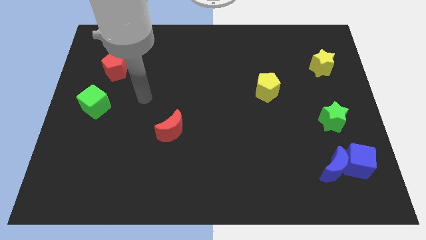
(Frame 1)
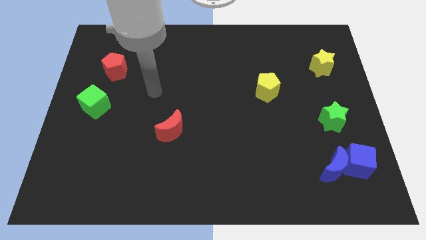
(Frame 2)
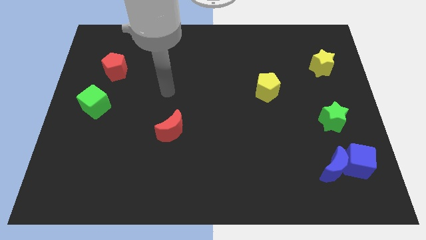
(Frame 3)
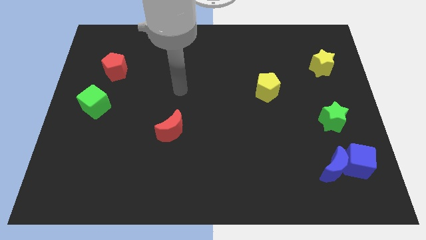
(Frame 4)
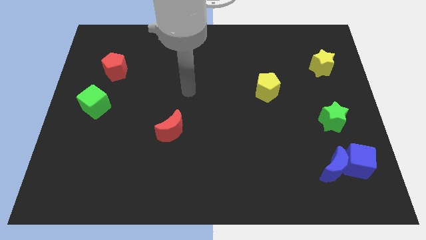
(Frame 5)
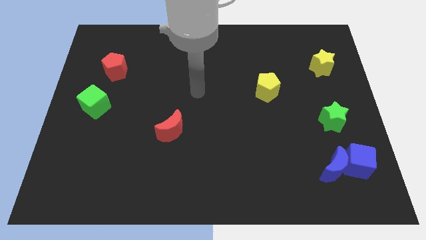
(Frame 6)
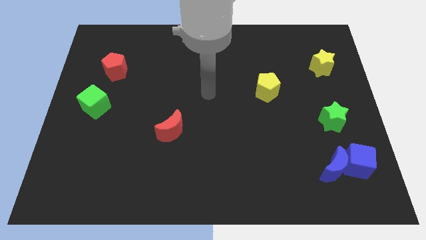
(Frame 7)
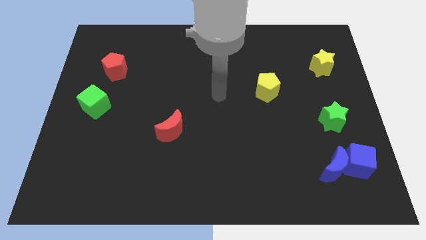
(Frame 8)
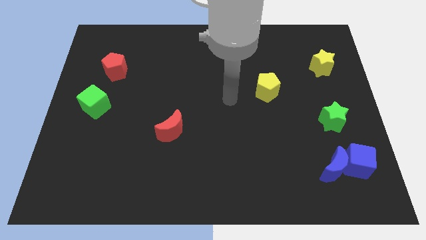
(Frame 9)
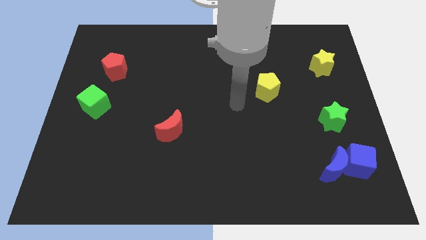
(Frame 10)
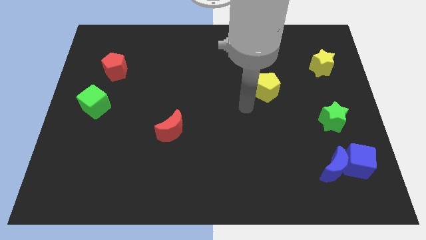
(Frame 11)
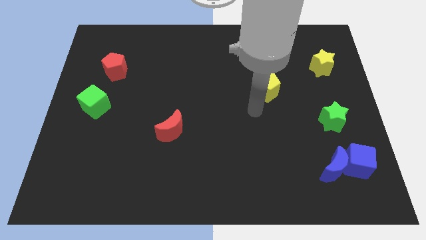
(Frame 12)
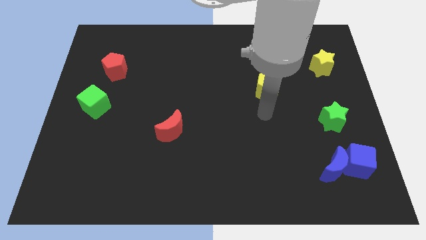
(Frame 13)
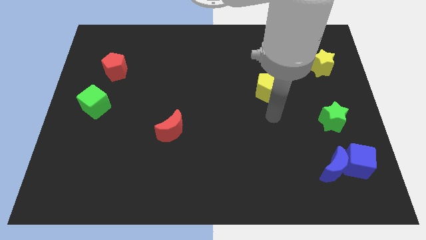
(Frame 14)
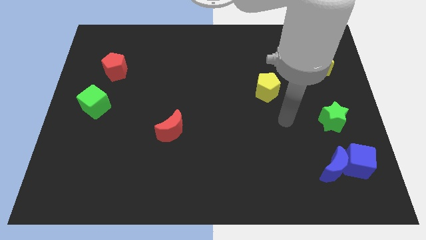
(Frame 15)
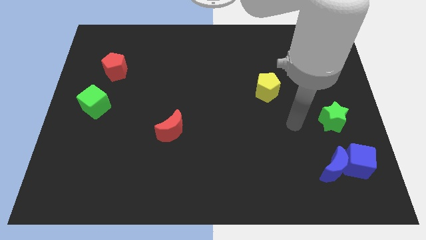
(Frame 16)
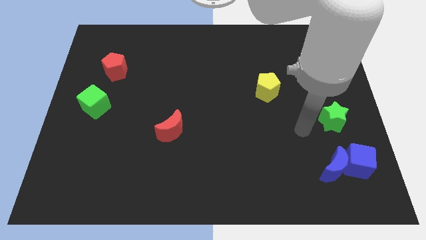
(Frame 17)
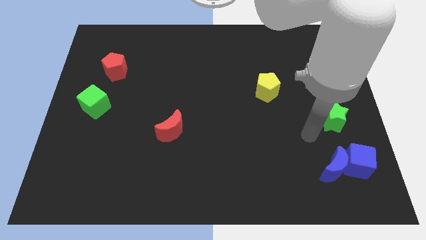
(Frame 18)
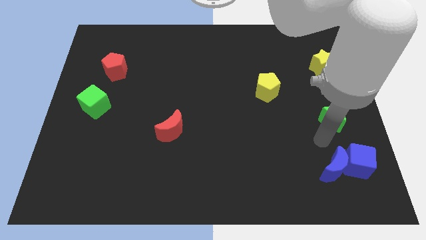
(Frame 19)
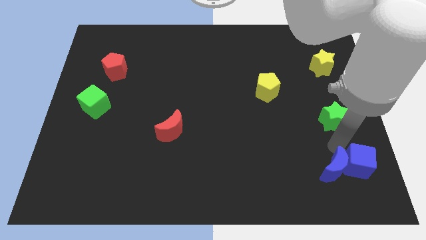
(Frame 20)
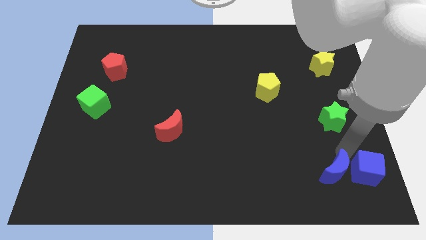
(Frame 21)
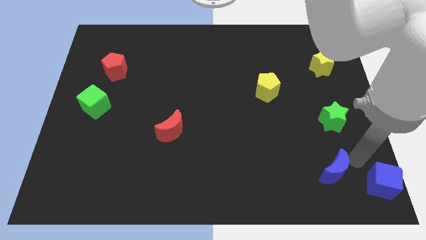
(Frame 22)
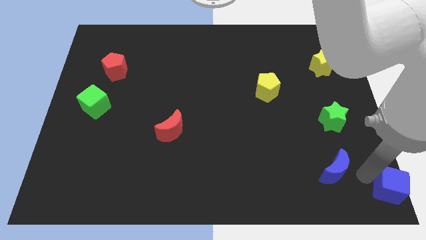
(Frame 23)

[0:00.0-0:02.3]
move the blue moon away from the blue cube

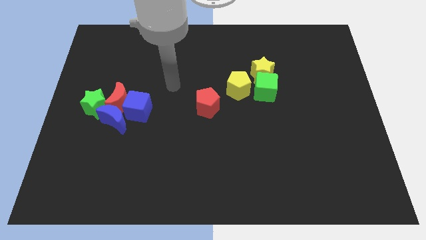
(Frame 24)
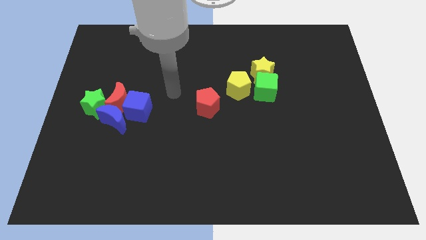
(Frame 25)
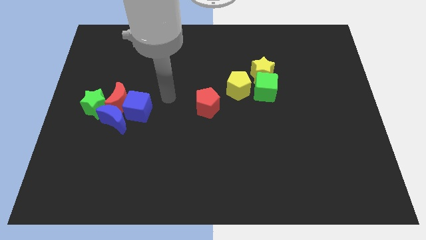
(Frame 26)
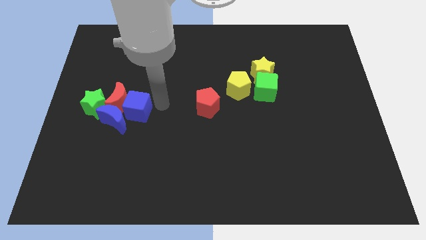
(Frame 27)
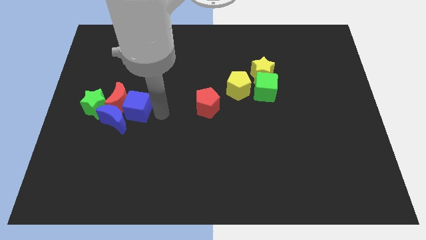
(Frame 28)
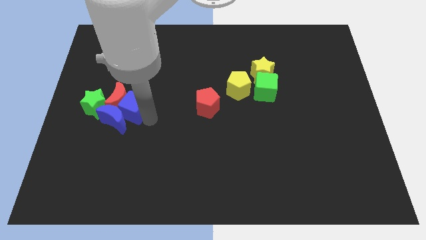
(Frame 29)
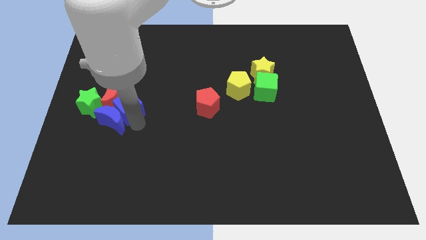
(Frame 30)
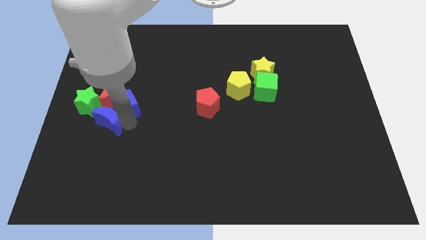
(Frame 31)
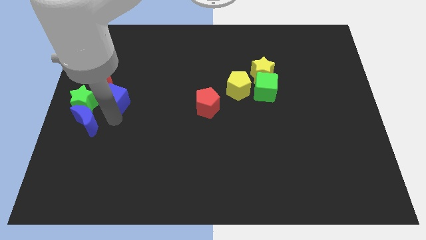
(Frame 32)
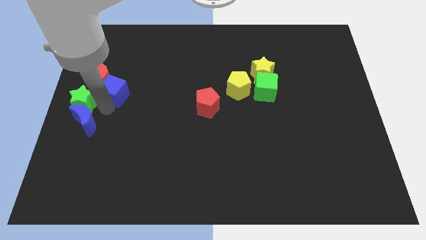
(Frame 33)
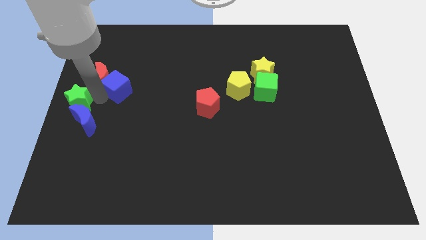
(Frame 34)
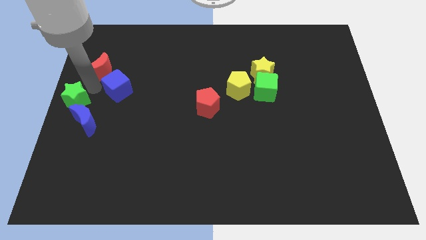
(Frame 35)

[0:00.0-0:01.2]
separate the red moon from the group

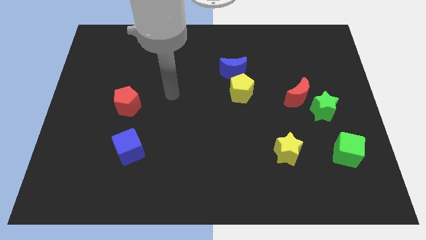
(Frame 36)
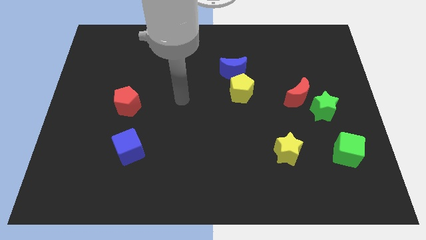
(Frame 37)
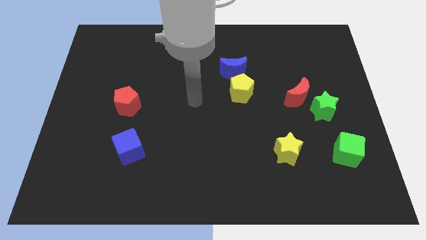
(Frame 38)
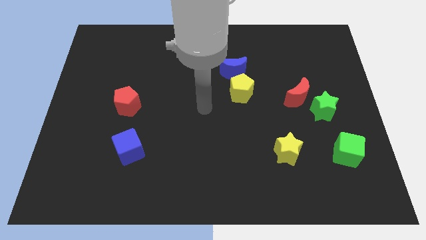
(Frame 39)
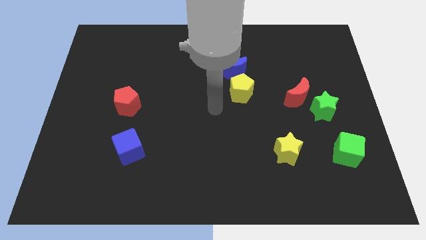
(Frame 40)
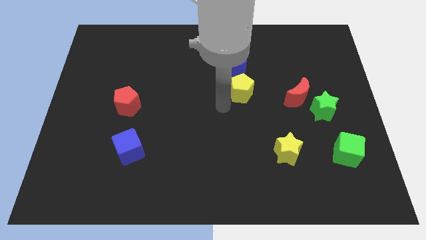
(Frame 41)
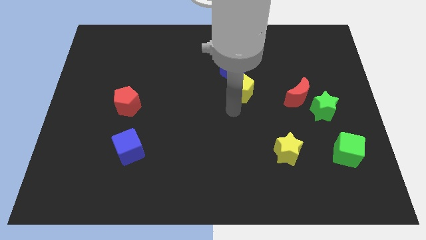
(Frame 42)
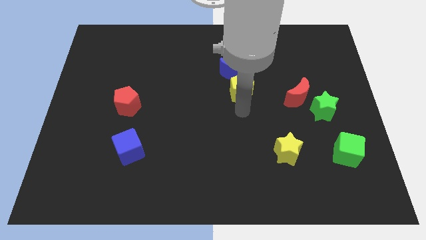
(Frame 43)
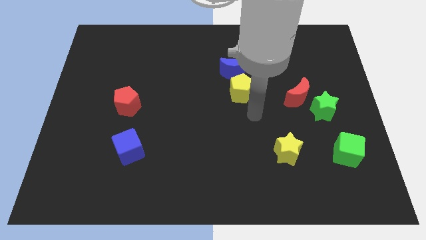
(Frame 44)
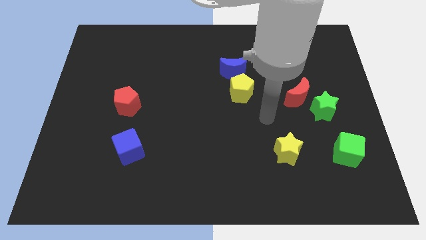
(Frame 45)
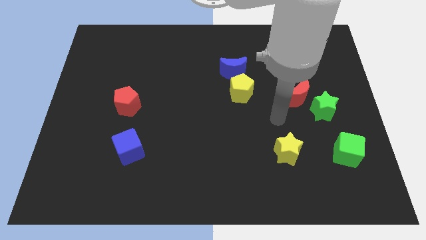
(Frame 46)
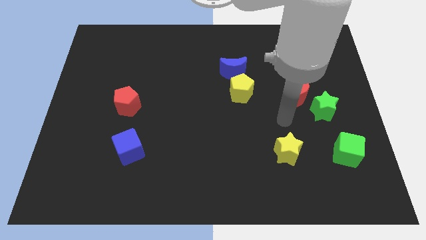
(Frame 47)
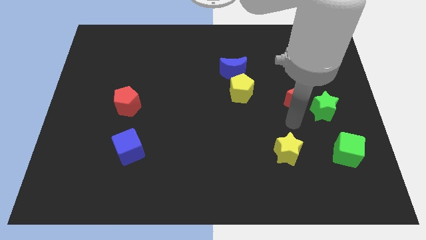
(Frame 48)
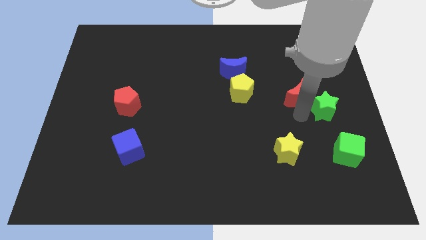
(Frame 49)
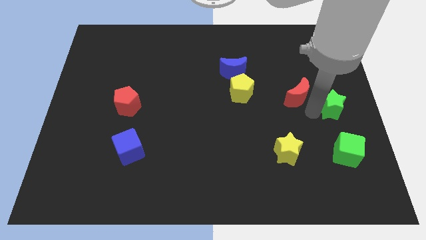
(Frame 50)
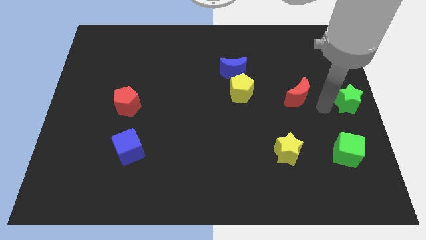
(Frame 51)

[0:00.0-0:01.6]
move the red moon away from the green star

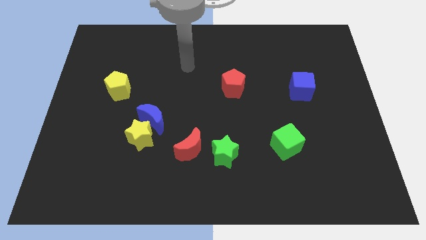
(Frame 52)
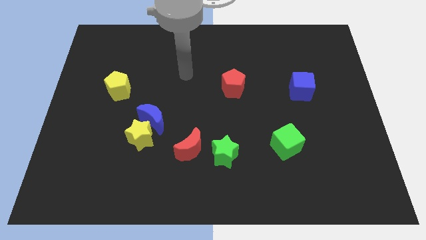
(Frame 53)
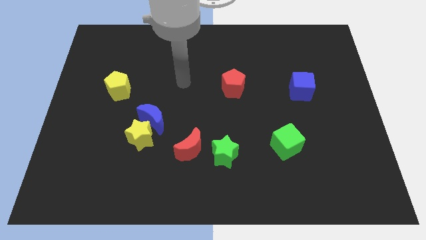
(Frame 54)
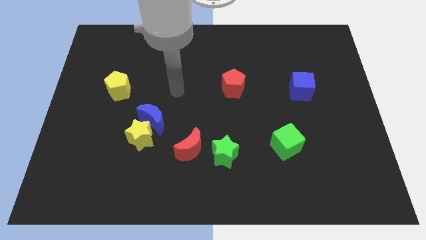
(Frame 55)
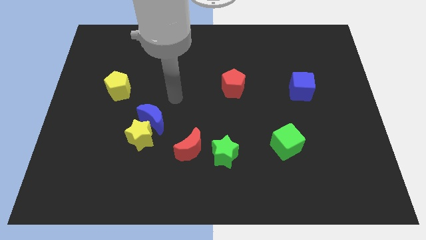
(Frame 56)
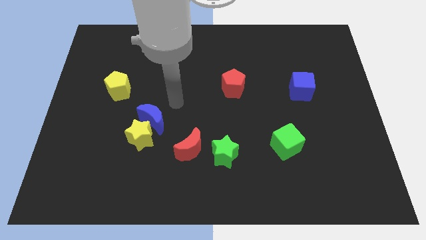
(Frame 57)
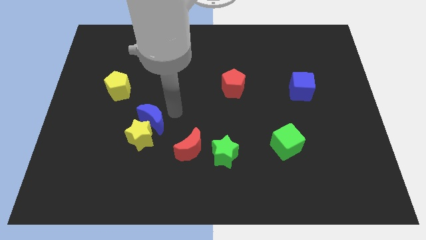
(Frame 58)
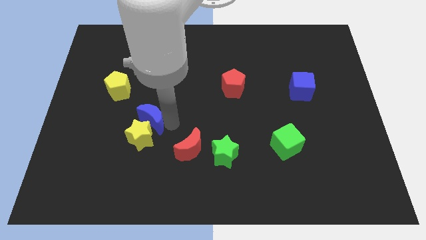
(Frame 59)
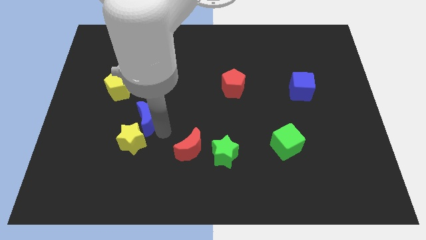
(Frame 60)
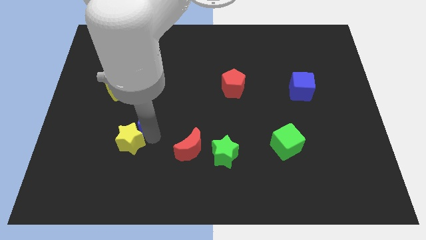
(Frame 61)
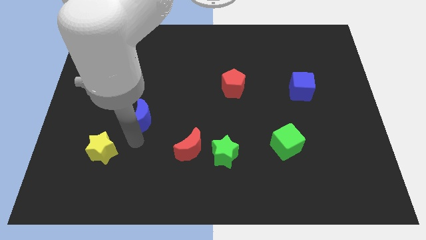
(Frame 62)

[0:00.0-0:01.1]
separate the blue moon from the yellow star

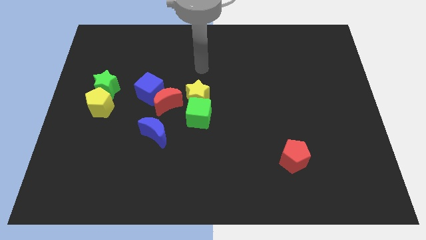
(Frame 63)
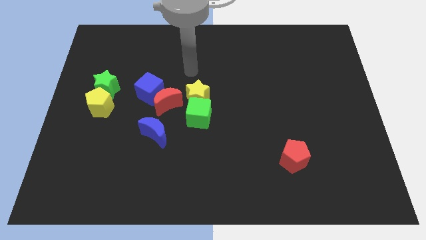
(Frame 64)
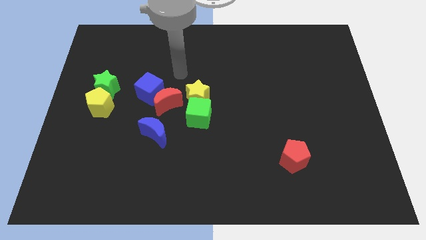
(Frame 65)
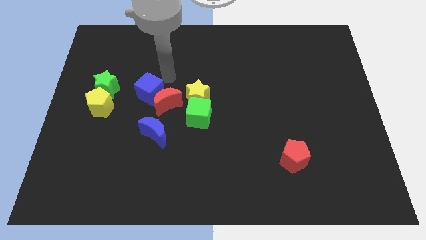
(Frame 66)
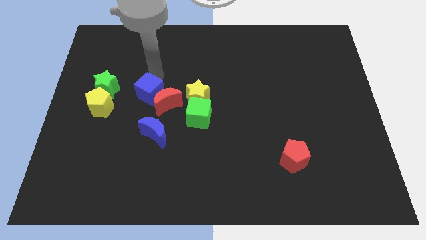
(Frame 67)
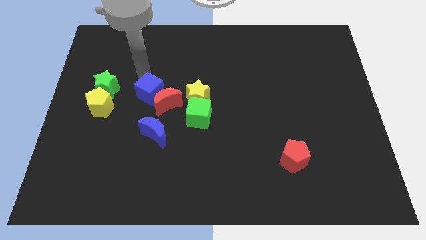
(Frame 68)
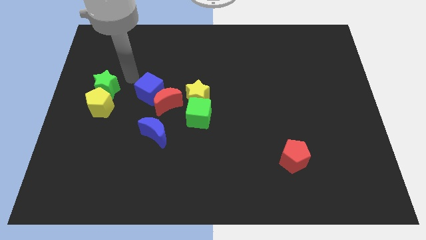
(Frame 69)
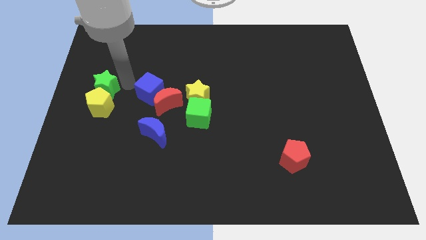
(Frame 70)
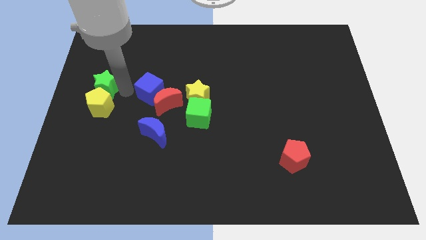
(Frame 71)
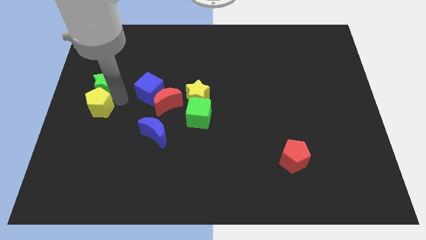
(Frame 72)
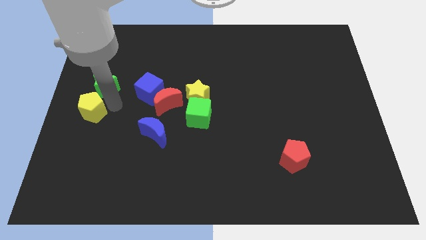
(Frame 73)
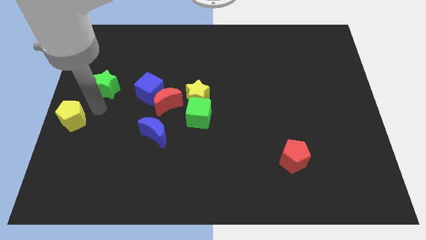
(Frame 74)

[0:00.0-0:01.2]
pull the green star apart from the yellow pentagon

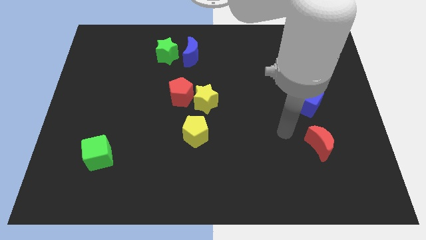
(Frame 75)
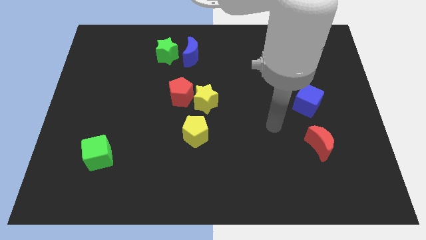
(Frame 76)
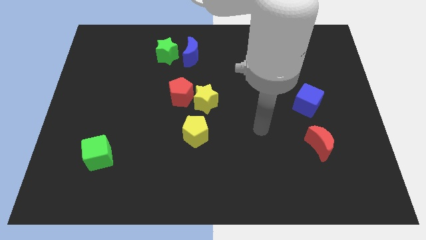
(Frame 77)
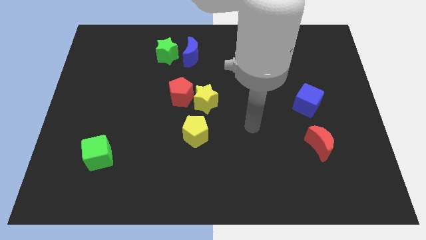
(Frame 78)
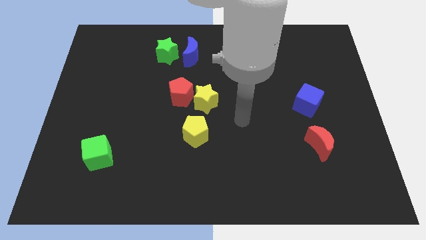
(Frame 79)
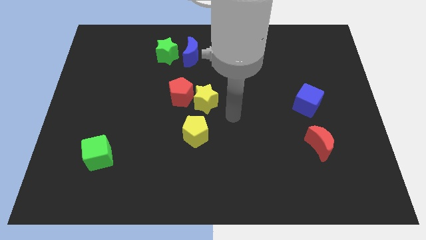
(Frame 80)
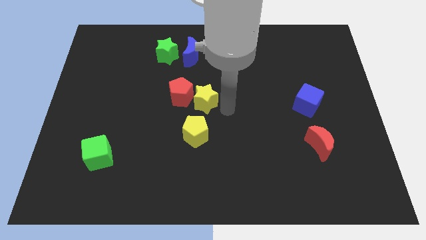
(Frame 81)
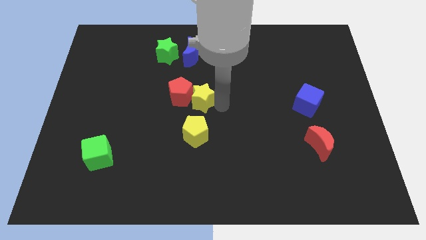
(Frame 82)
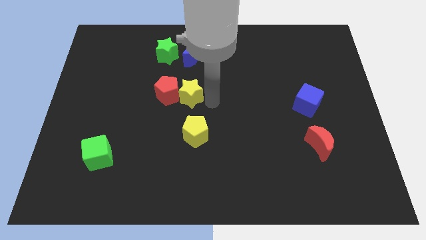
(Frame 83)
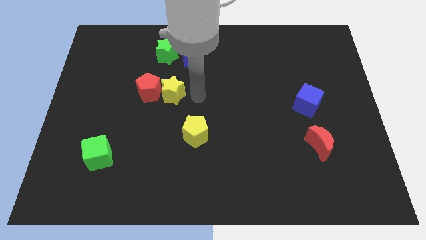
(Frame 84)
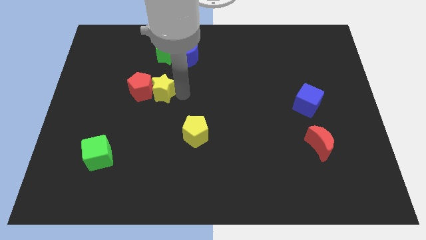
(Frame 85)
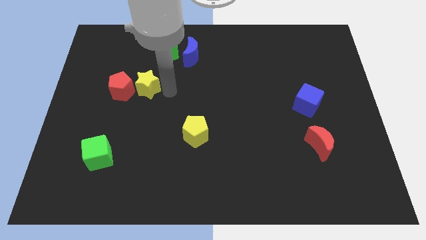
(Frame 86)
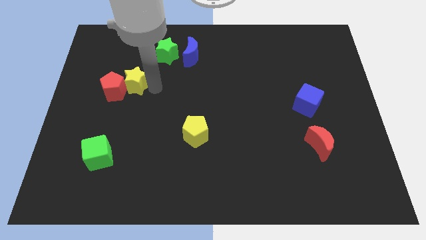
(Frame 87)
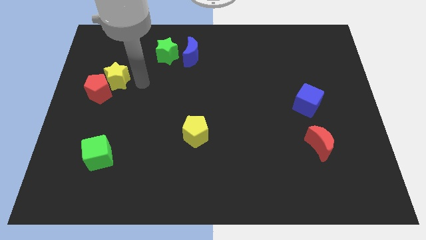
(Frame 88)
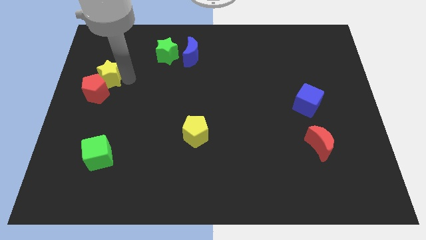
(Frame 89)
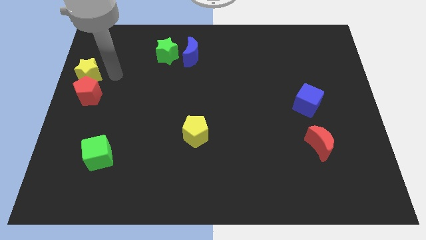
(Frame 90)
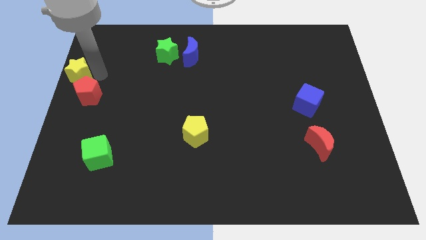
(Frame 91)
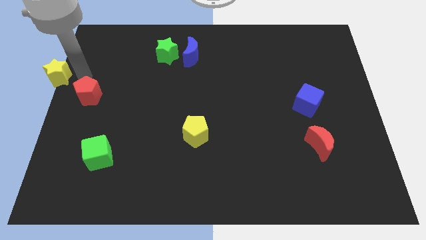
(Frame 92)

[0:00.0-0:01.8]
pull the red pentagon apart from the yellow star
